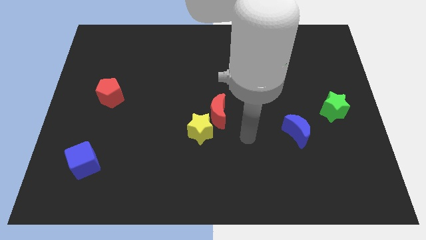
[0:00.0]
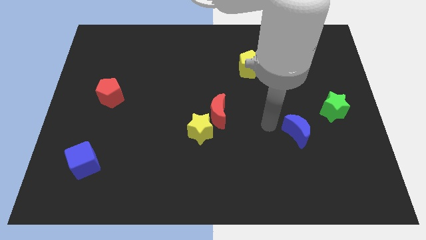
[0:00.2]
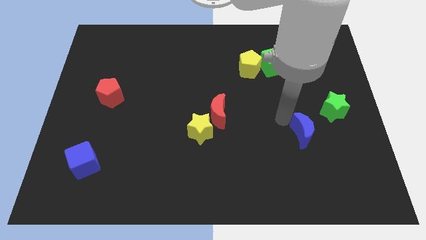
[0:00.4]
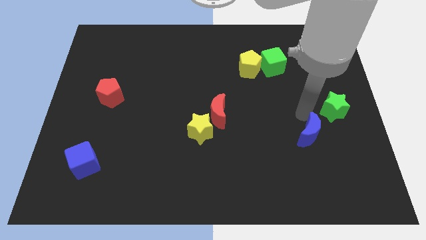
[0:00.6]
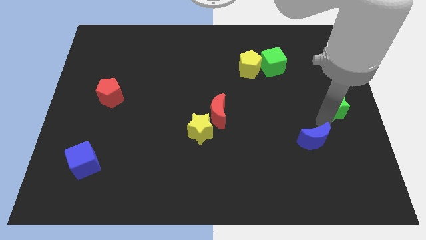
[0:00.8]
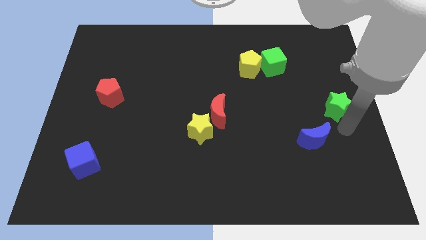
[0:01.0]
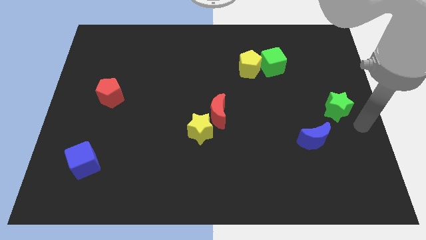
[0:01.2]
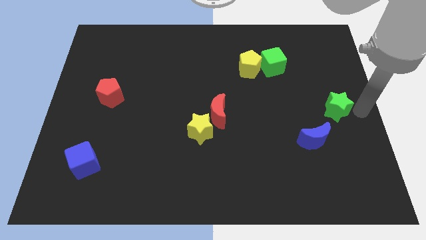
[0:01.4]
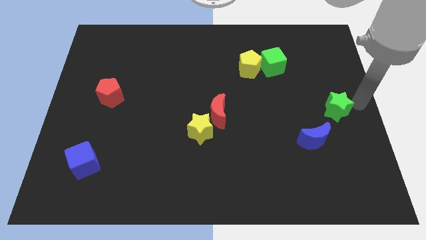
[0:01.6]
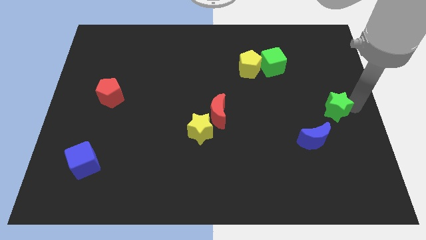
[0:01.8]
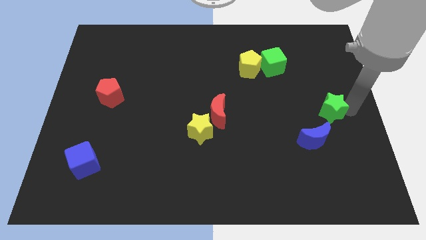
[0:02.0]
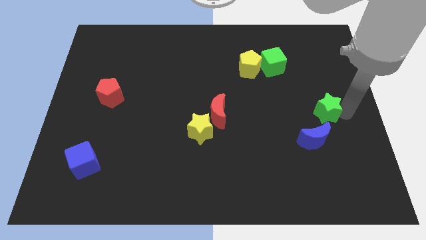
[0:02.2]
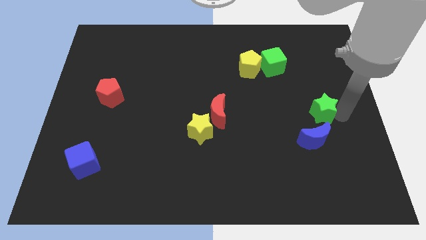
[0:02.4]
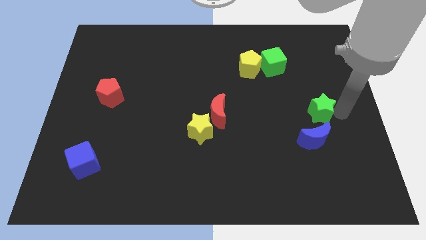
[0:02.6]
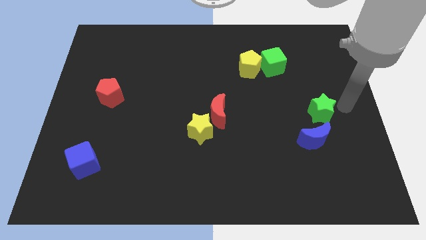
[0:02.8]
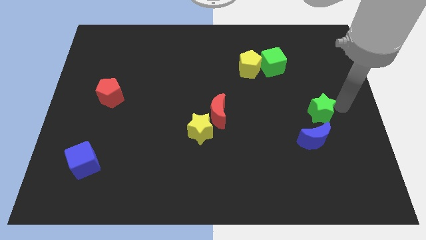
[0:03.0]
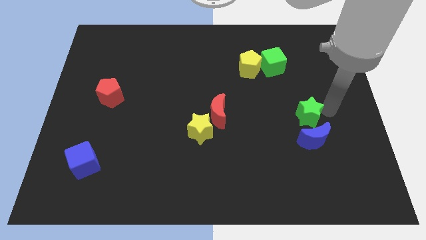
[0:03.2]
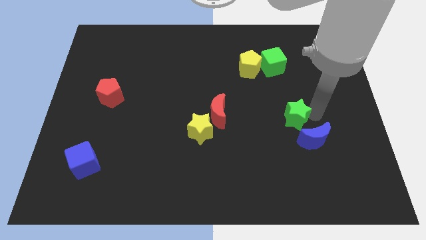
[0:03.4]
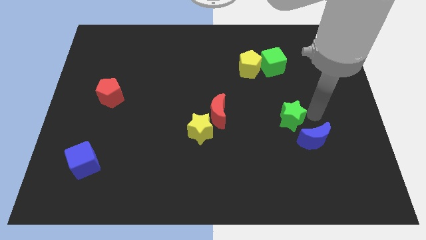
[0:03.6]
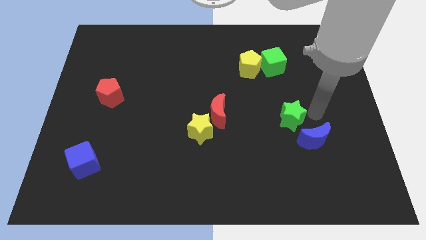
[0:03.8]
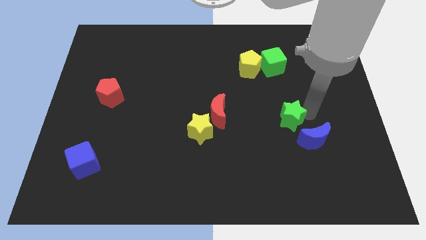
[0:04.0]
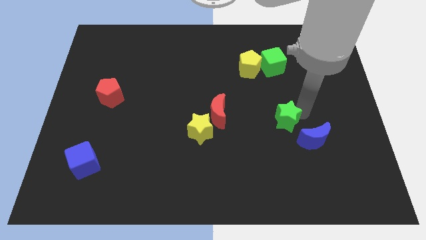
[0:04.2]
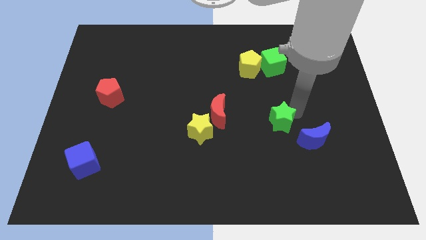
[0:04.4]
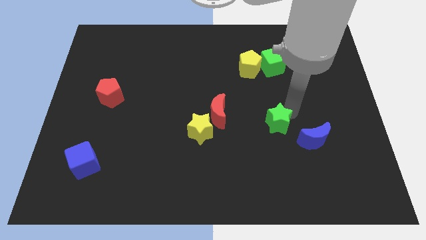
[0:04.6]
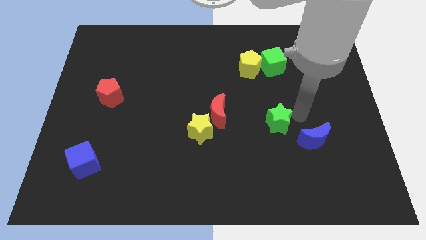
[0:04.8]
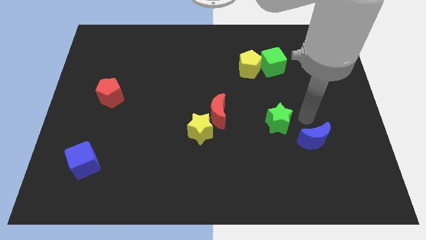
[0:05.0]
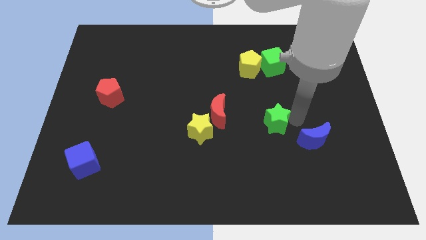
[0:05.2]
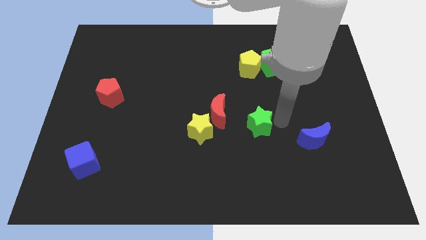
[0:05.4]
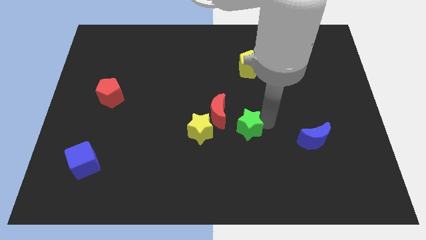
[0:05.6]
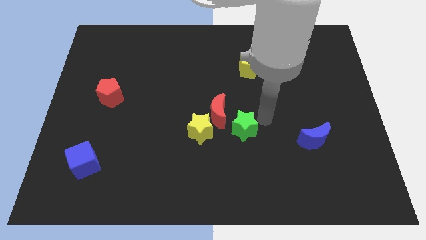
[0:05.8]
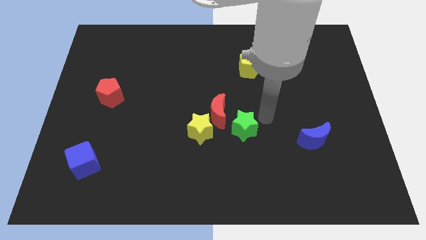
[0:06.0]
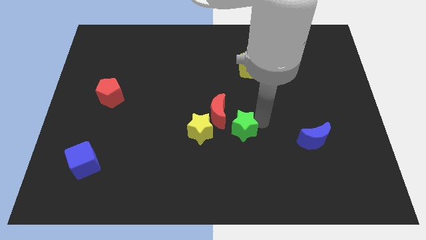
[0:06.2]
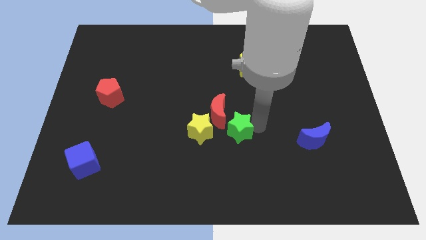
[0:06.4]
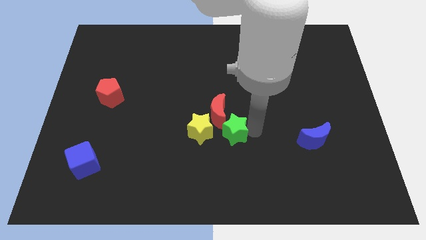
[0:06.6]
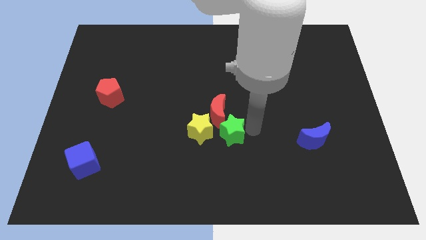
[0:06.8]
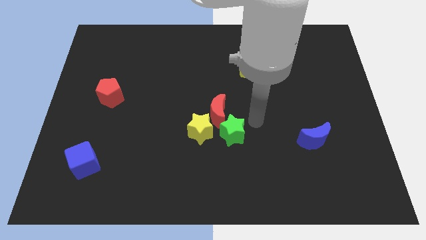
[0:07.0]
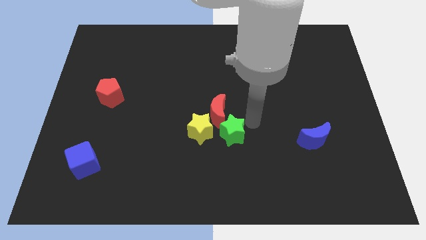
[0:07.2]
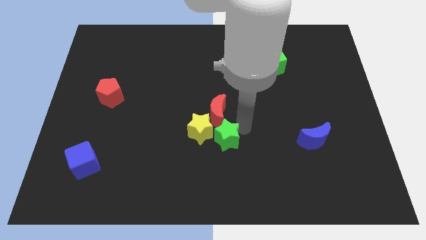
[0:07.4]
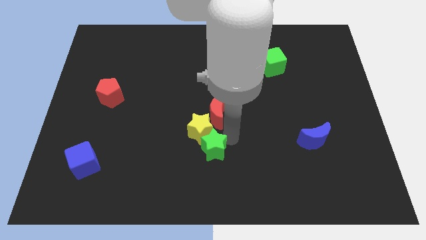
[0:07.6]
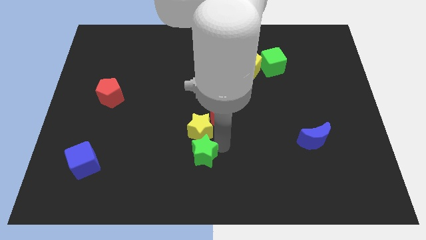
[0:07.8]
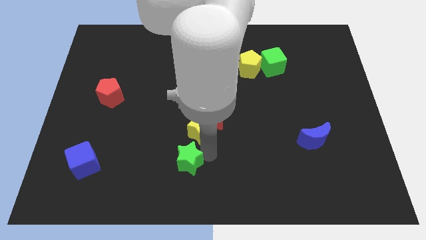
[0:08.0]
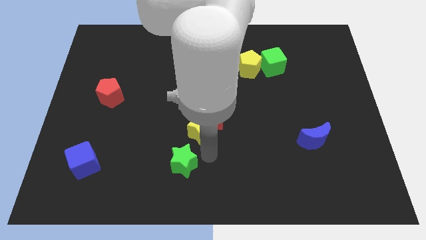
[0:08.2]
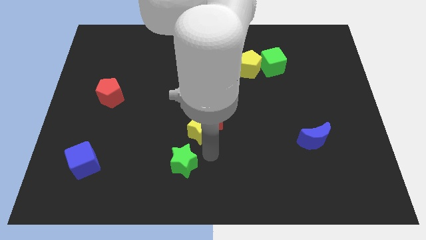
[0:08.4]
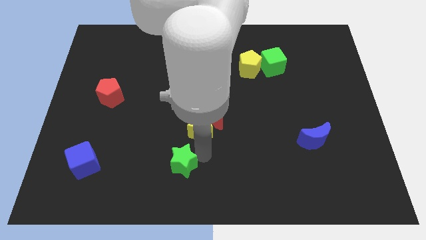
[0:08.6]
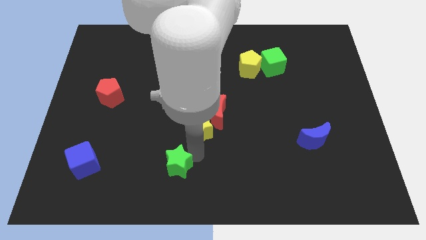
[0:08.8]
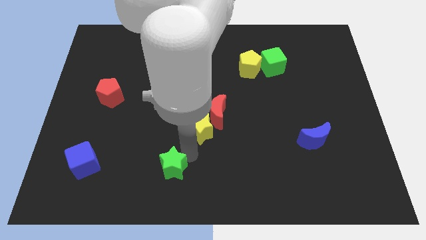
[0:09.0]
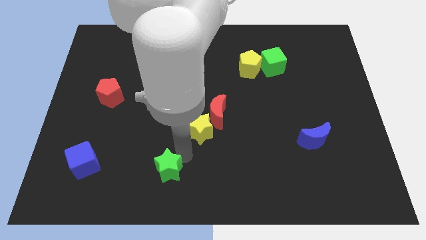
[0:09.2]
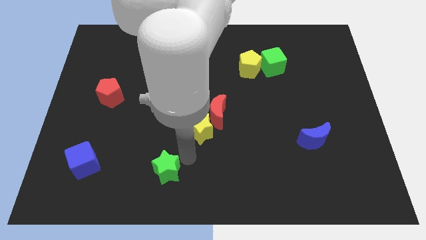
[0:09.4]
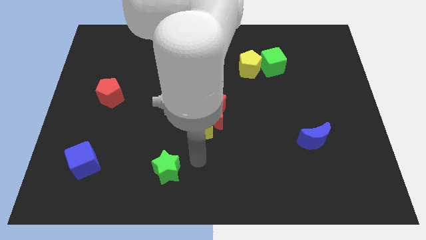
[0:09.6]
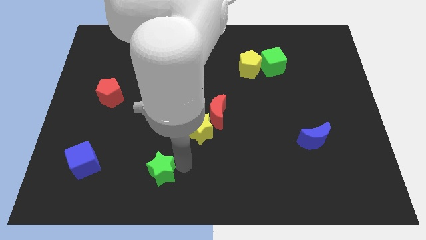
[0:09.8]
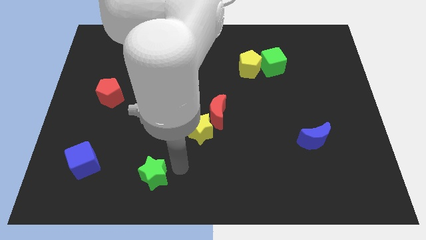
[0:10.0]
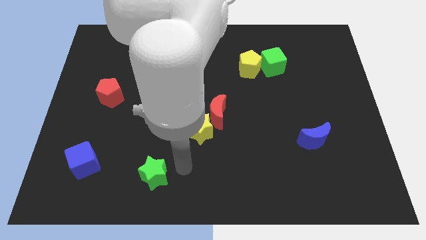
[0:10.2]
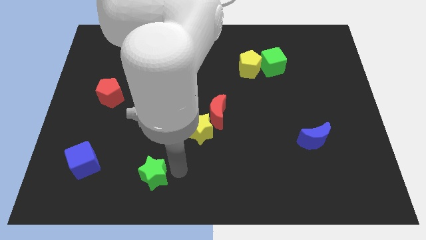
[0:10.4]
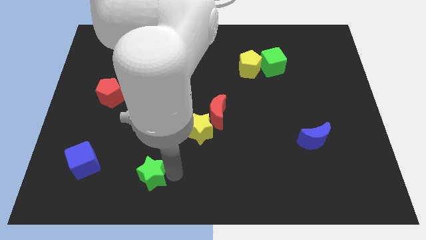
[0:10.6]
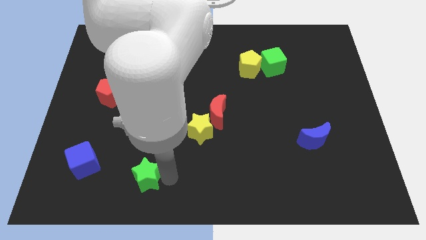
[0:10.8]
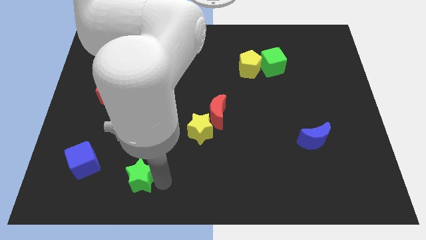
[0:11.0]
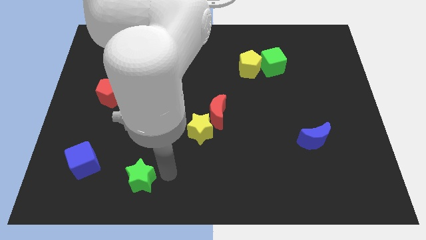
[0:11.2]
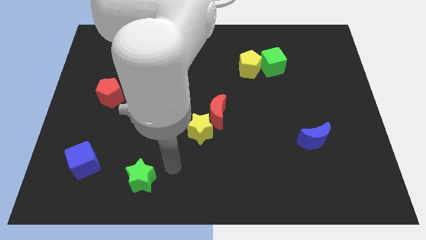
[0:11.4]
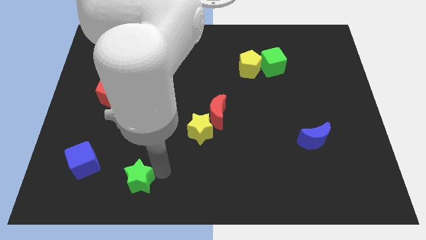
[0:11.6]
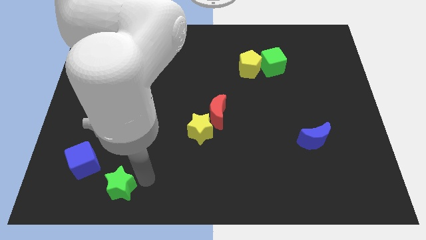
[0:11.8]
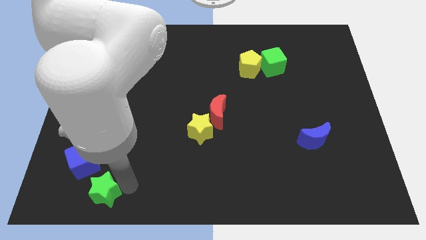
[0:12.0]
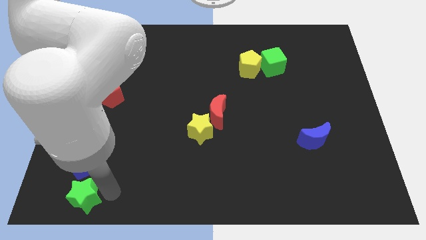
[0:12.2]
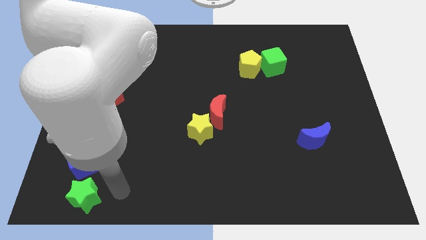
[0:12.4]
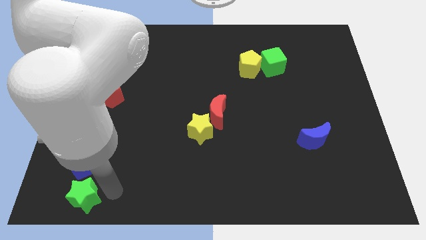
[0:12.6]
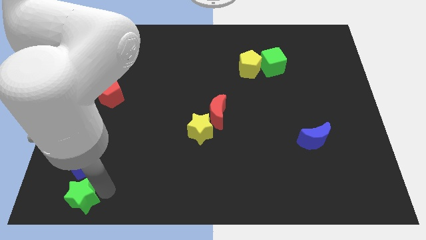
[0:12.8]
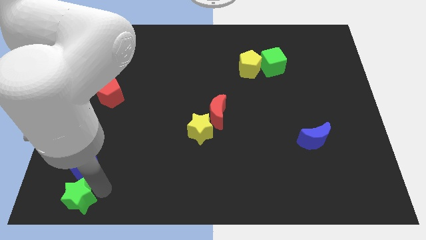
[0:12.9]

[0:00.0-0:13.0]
slide the green star to the bottom left of the board

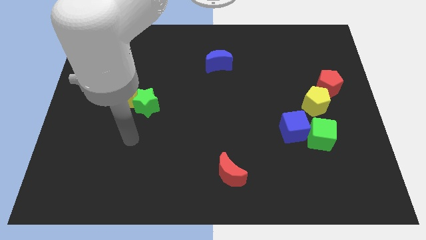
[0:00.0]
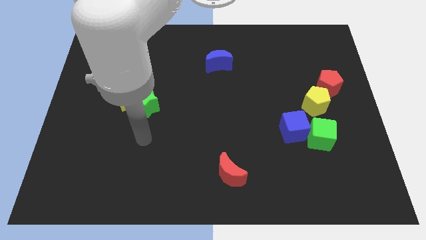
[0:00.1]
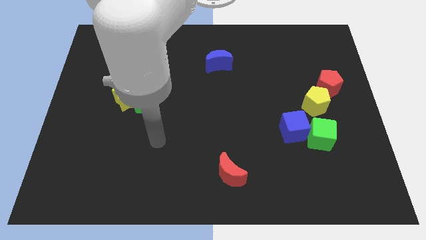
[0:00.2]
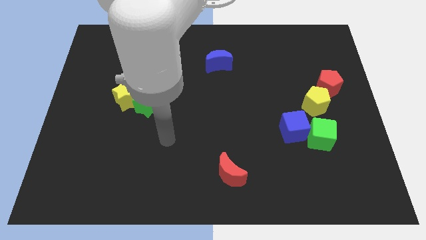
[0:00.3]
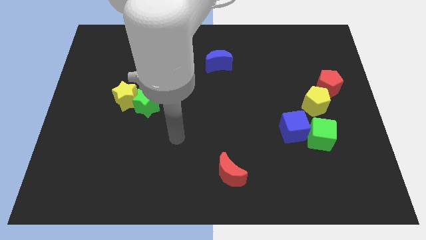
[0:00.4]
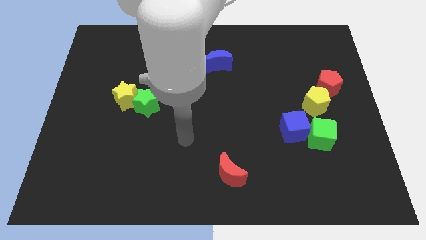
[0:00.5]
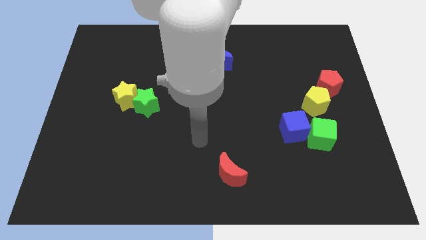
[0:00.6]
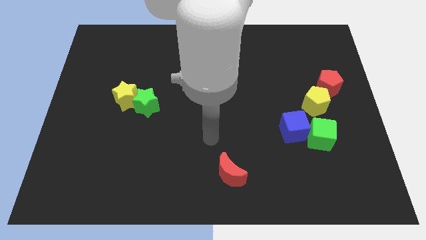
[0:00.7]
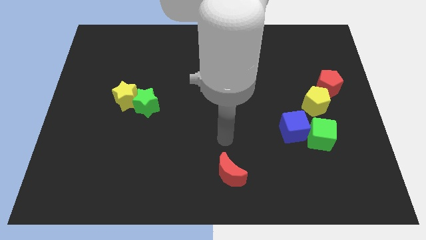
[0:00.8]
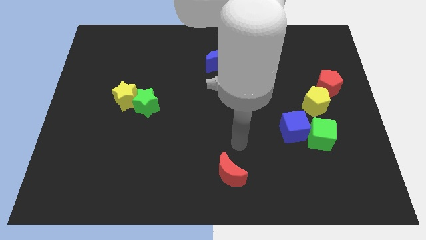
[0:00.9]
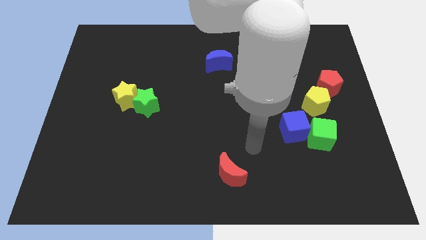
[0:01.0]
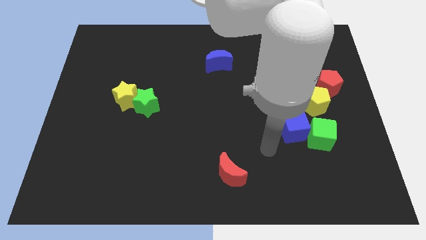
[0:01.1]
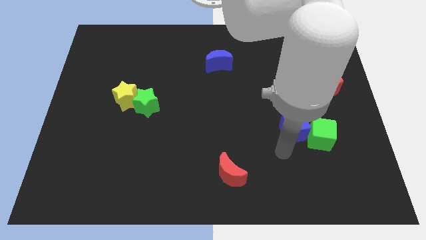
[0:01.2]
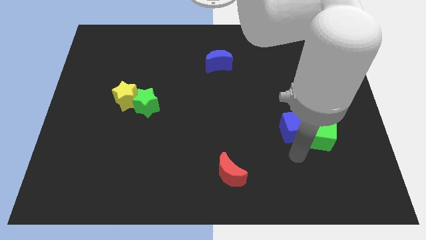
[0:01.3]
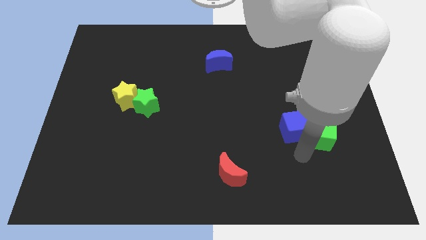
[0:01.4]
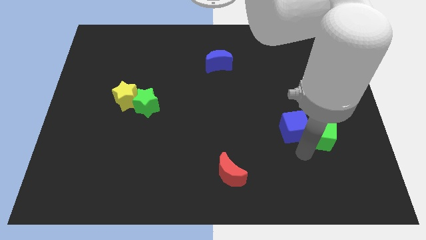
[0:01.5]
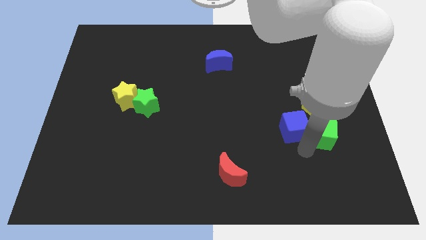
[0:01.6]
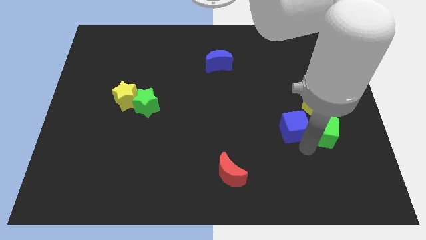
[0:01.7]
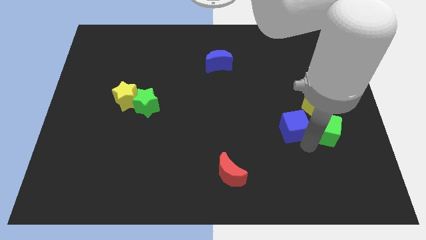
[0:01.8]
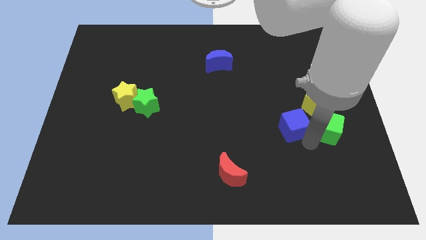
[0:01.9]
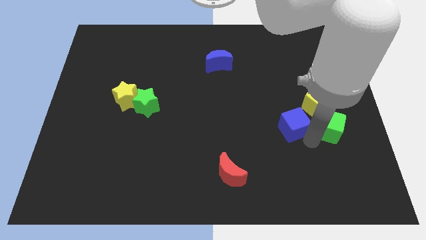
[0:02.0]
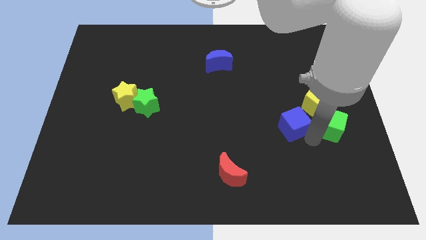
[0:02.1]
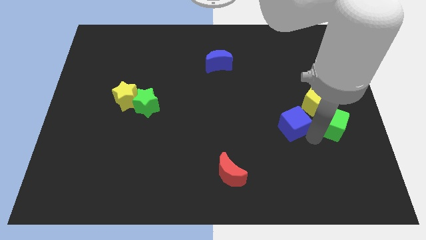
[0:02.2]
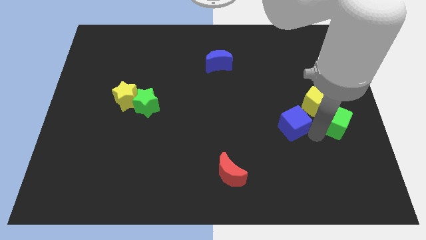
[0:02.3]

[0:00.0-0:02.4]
slide the green cube to the center right
